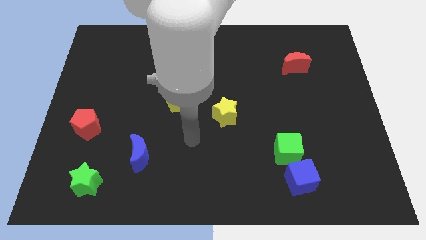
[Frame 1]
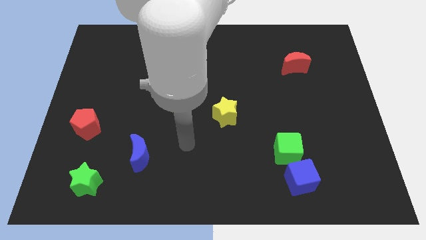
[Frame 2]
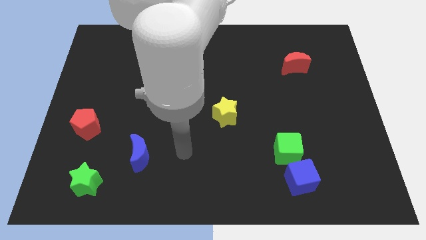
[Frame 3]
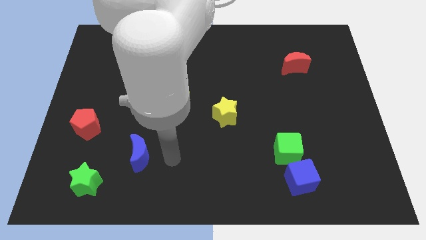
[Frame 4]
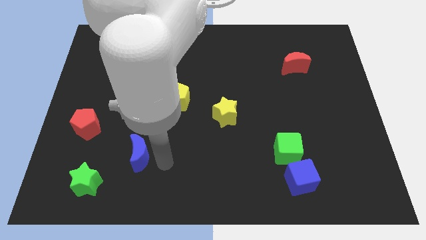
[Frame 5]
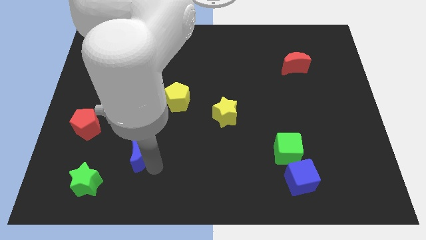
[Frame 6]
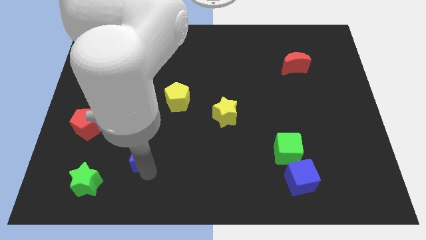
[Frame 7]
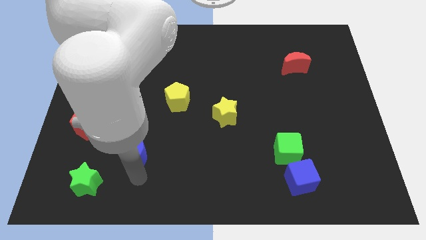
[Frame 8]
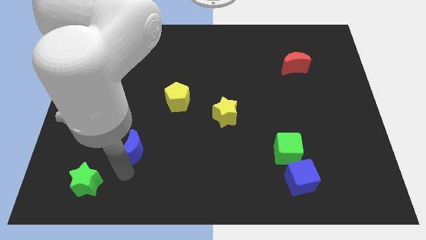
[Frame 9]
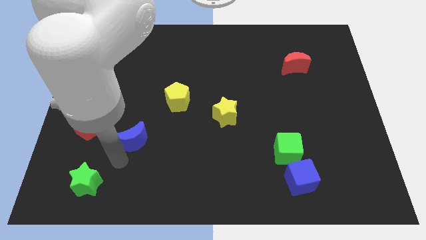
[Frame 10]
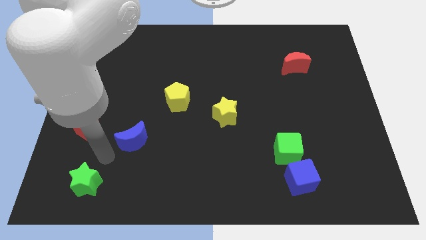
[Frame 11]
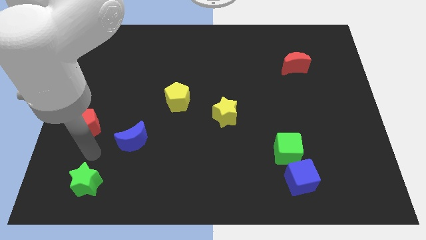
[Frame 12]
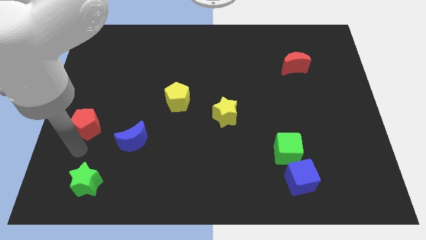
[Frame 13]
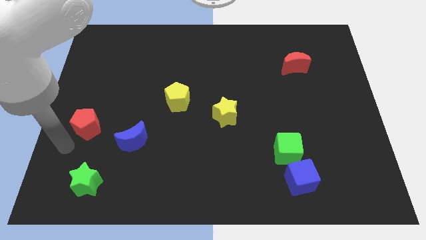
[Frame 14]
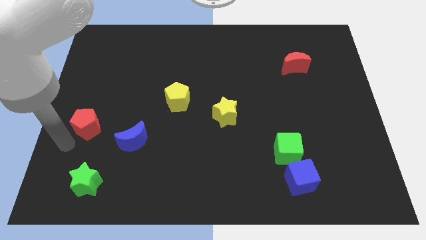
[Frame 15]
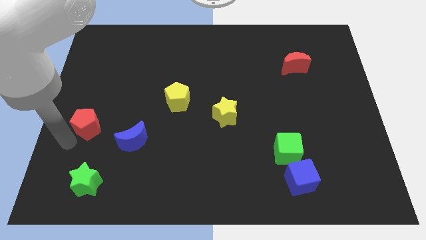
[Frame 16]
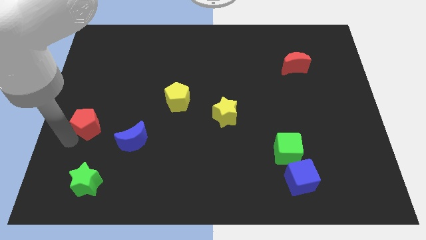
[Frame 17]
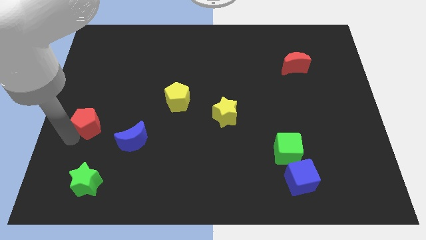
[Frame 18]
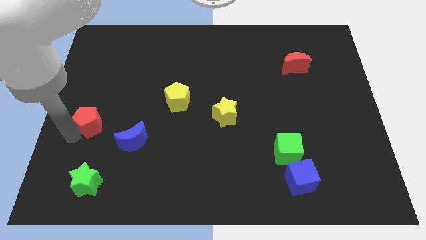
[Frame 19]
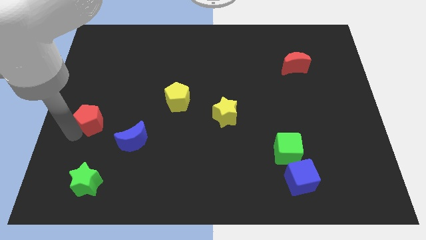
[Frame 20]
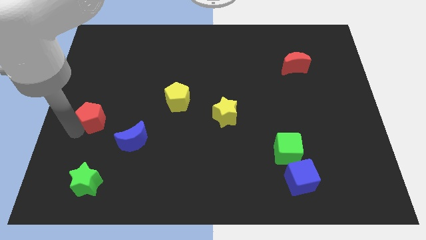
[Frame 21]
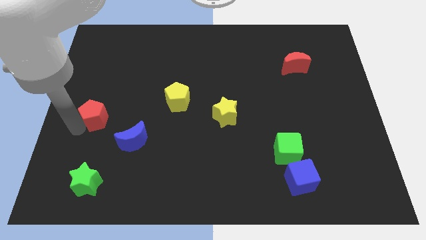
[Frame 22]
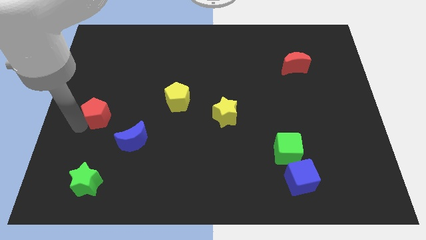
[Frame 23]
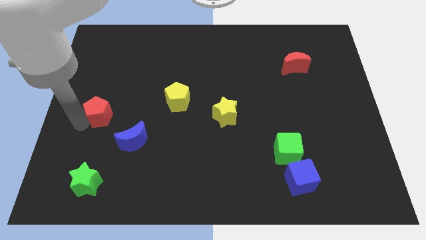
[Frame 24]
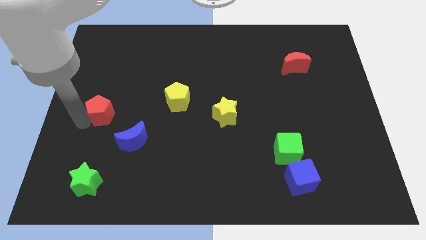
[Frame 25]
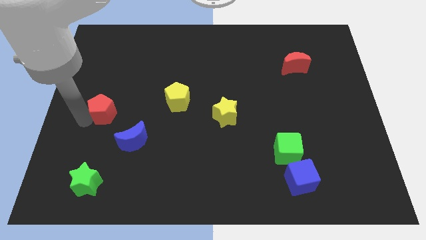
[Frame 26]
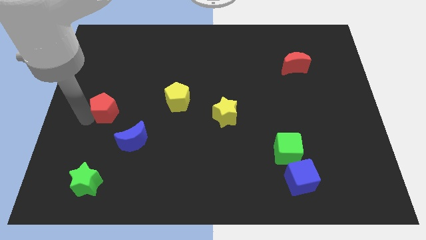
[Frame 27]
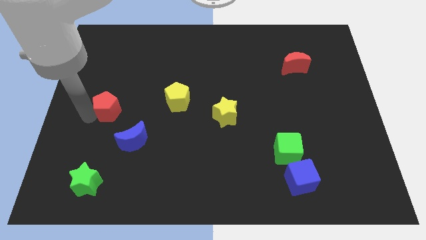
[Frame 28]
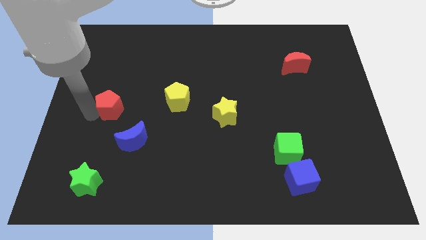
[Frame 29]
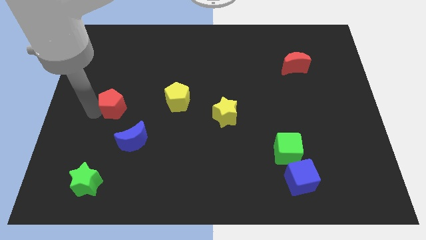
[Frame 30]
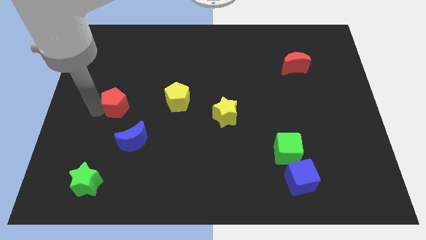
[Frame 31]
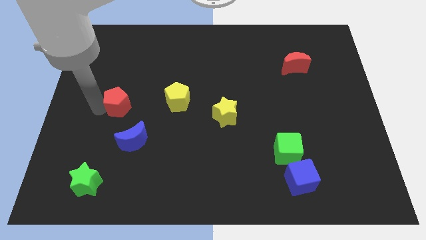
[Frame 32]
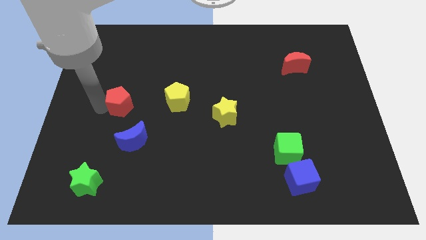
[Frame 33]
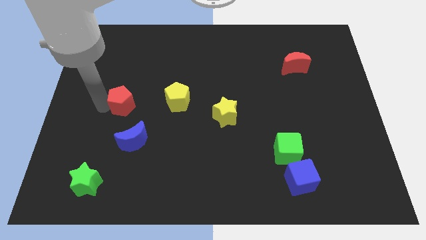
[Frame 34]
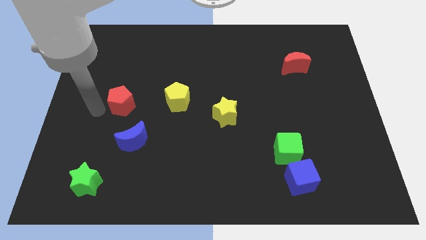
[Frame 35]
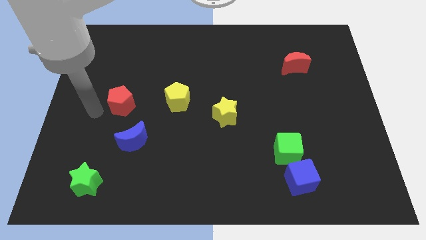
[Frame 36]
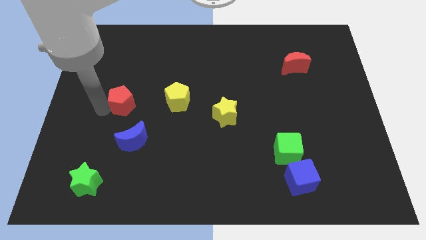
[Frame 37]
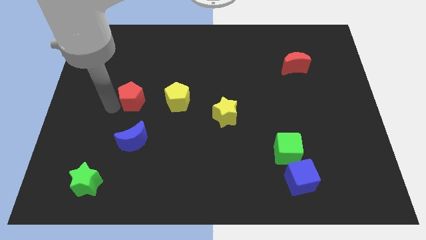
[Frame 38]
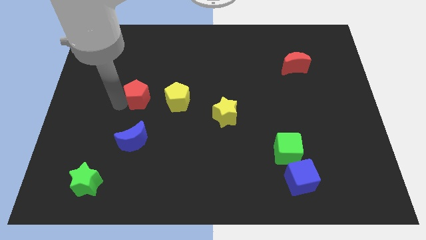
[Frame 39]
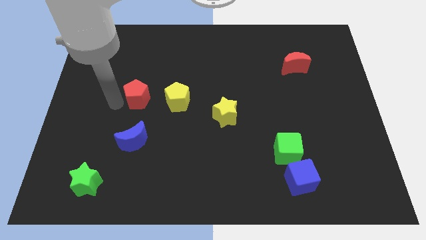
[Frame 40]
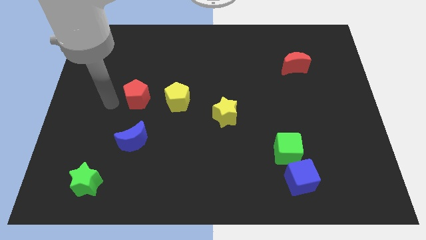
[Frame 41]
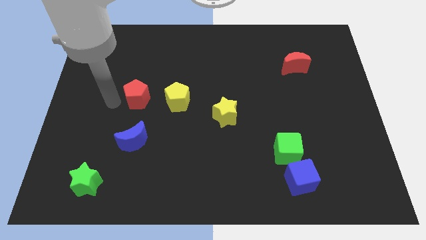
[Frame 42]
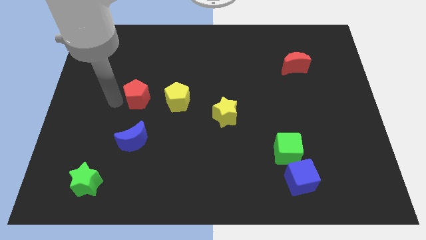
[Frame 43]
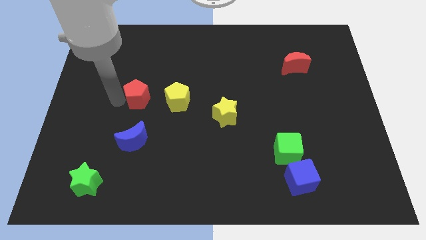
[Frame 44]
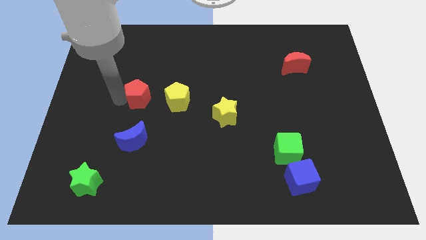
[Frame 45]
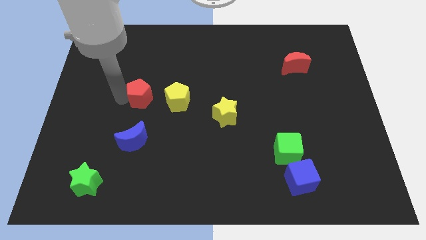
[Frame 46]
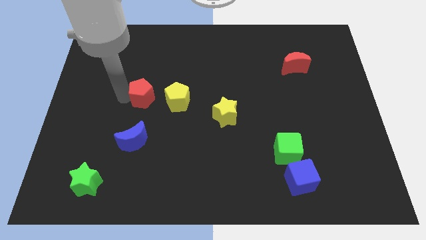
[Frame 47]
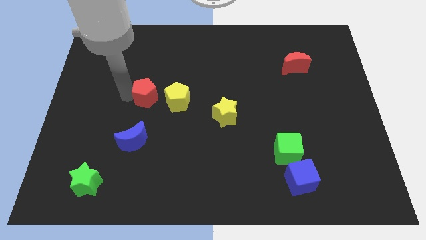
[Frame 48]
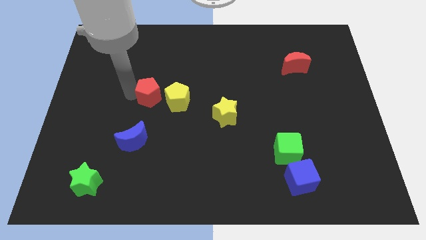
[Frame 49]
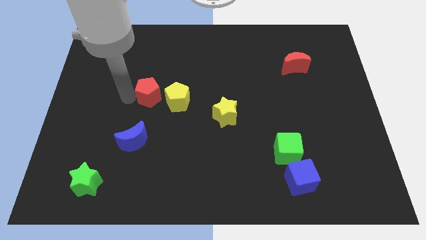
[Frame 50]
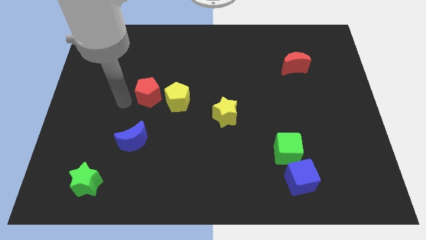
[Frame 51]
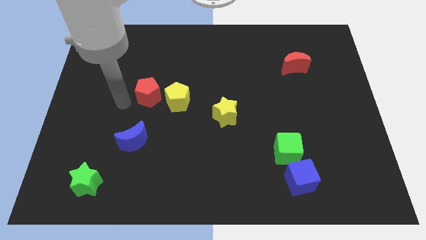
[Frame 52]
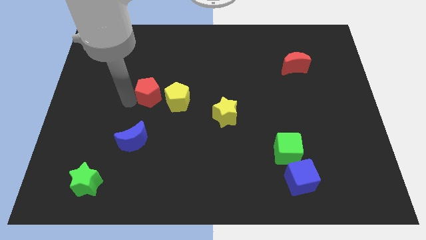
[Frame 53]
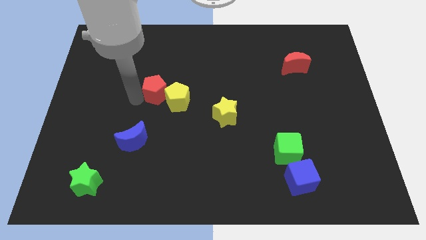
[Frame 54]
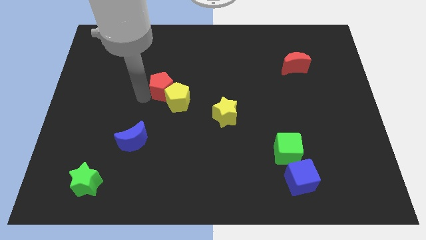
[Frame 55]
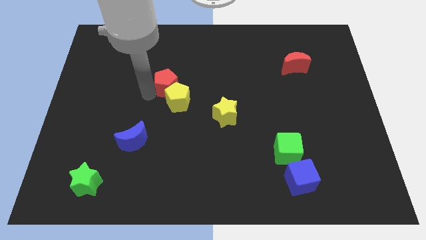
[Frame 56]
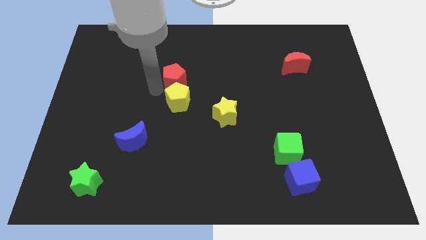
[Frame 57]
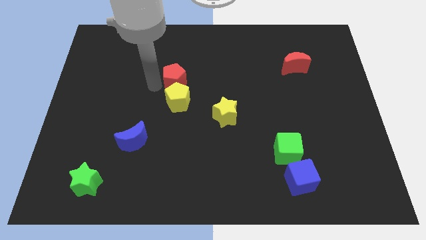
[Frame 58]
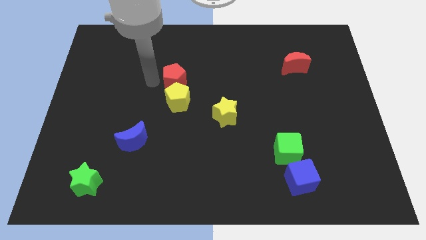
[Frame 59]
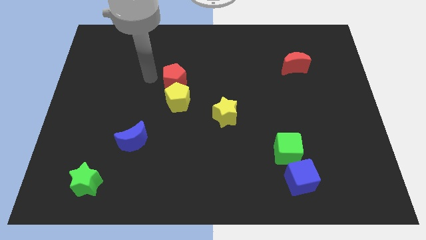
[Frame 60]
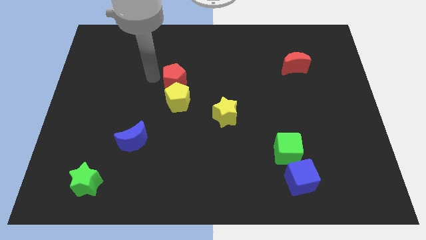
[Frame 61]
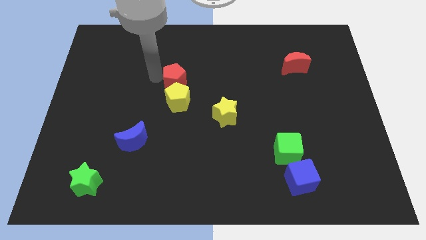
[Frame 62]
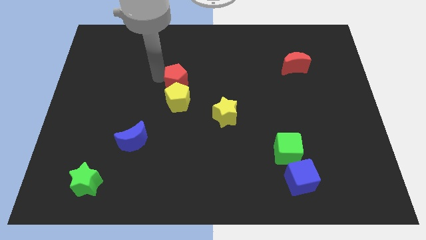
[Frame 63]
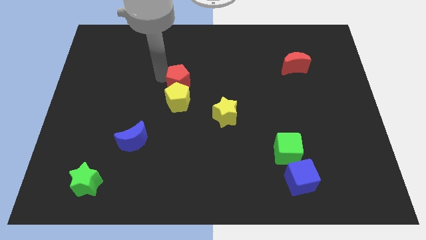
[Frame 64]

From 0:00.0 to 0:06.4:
put the red pentagon to the top right of the yellow pentagon

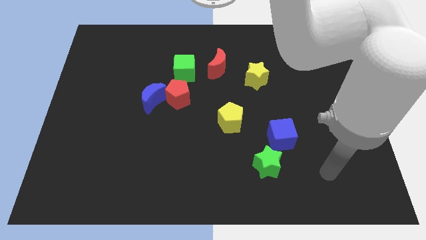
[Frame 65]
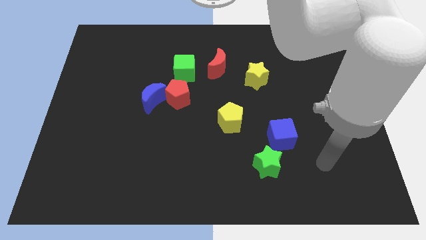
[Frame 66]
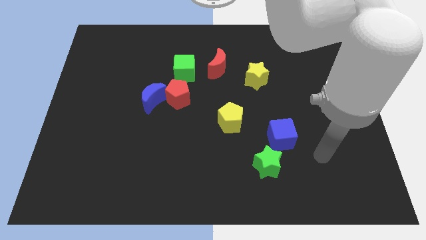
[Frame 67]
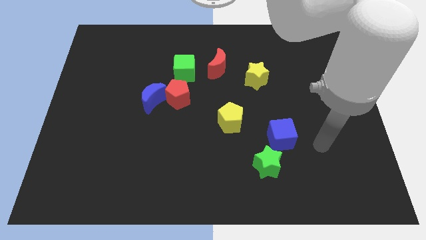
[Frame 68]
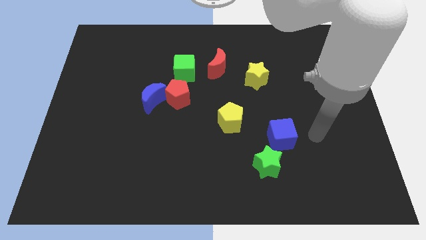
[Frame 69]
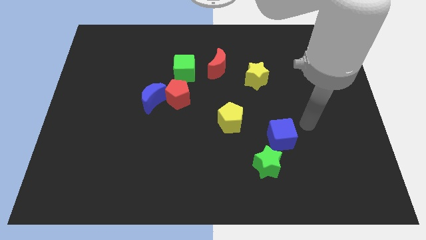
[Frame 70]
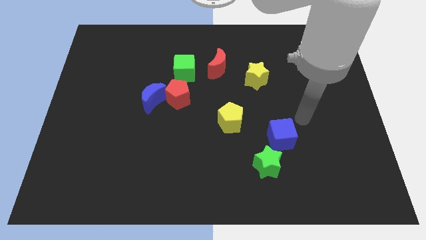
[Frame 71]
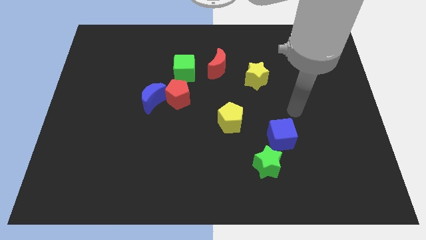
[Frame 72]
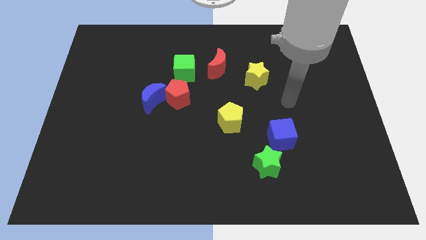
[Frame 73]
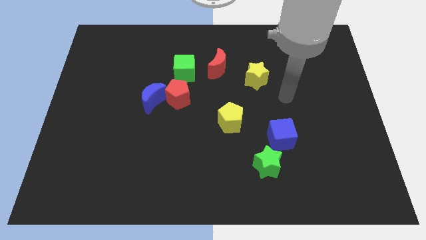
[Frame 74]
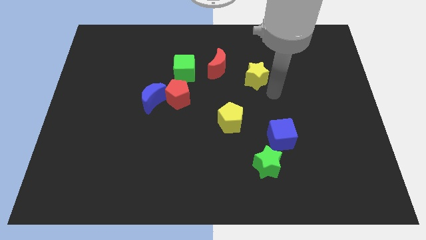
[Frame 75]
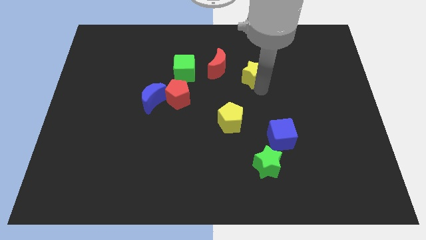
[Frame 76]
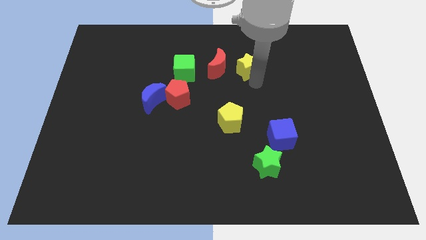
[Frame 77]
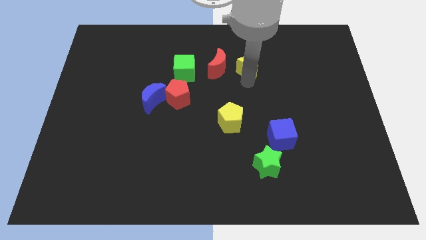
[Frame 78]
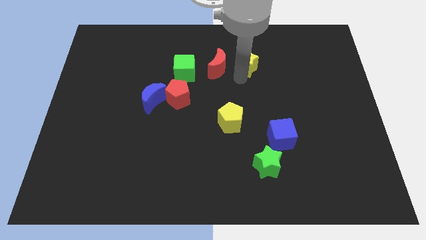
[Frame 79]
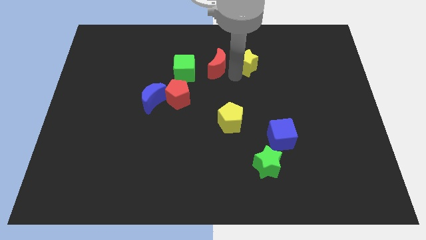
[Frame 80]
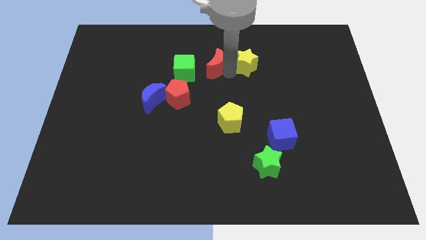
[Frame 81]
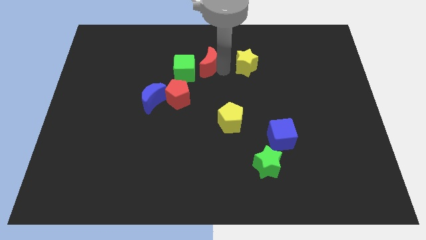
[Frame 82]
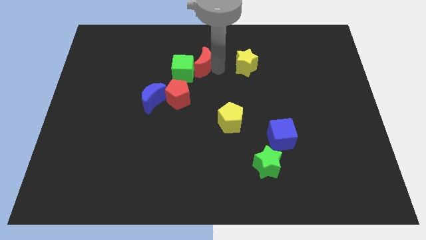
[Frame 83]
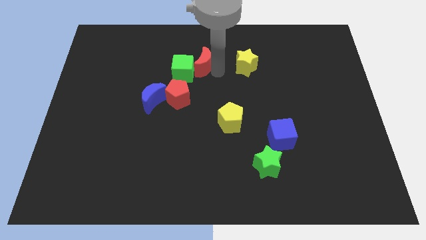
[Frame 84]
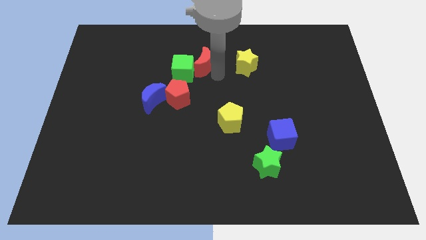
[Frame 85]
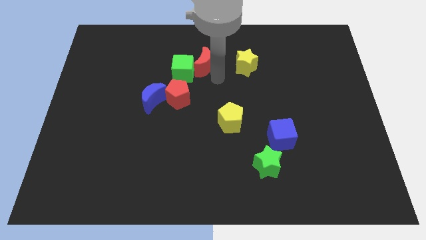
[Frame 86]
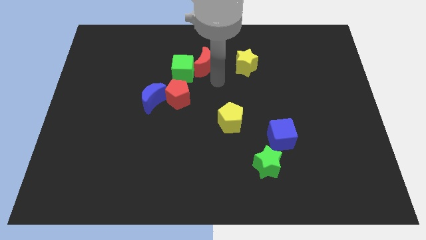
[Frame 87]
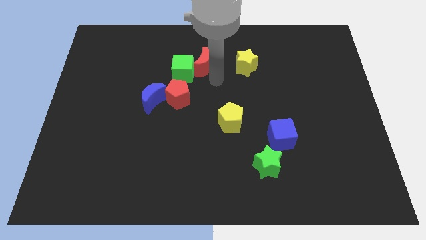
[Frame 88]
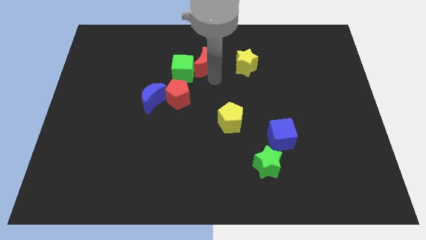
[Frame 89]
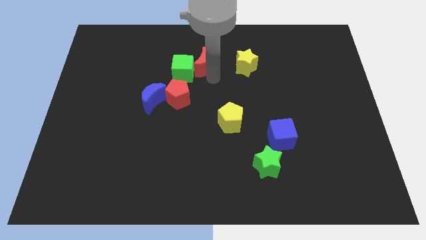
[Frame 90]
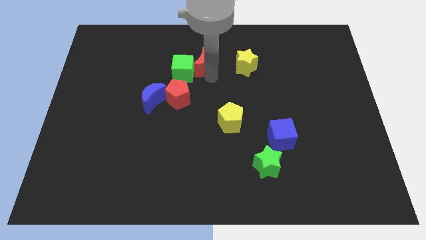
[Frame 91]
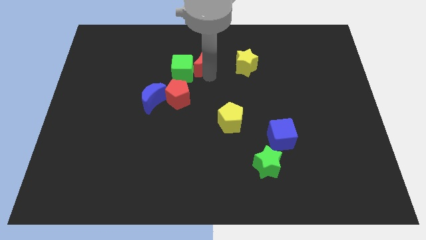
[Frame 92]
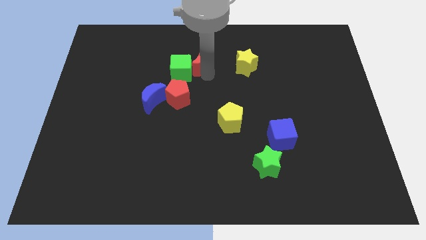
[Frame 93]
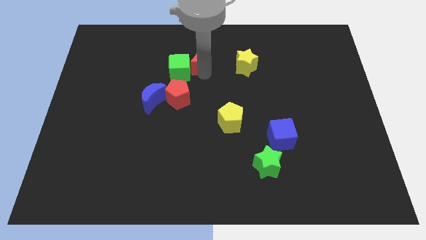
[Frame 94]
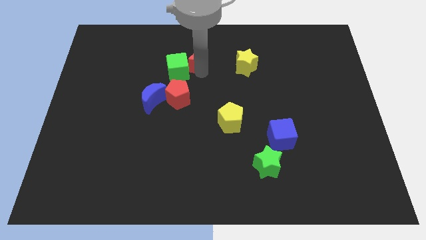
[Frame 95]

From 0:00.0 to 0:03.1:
slide the red moon above the red pentagon
